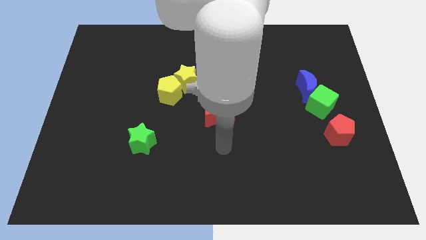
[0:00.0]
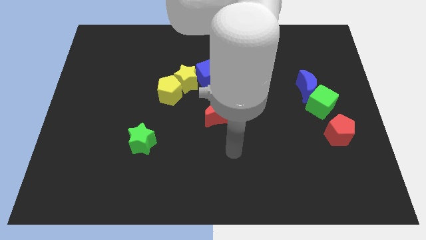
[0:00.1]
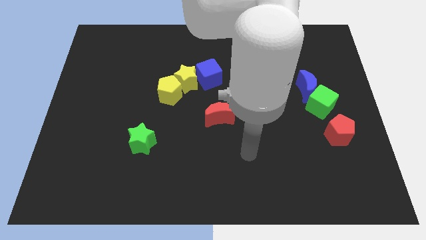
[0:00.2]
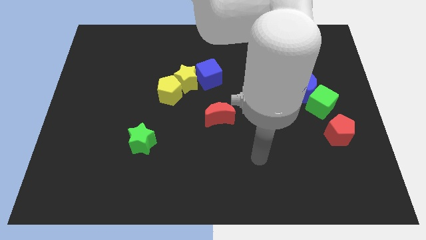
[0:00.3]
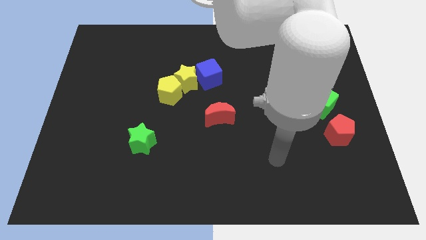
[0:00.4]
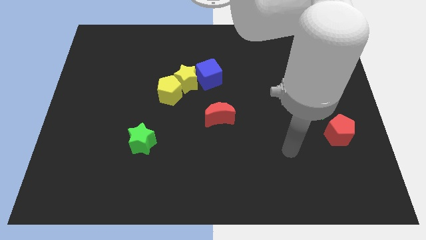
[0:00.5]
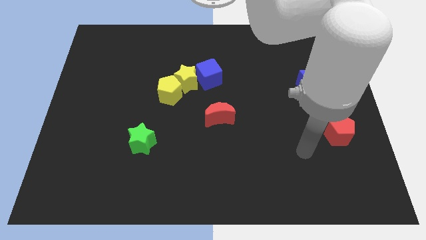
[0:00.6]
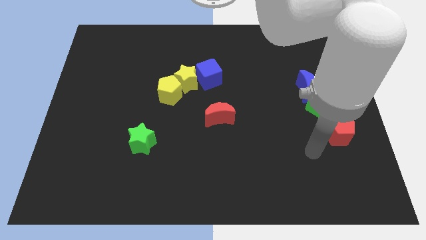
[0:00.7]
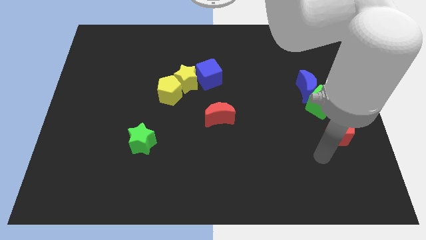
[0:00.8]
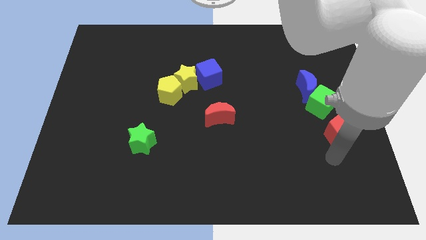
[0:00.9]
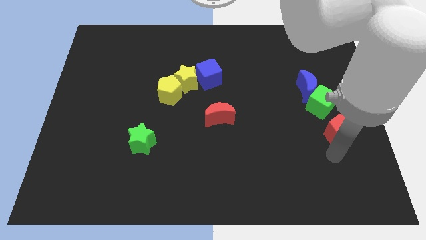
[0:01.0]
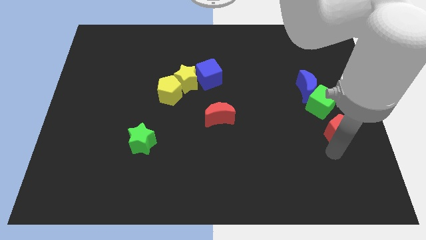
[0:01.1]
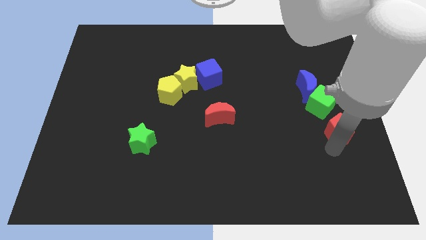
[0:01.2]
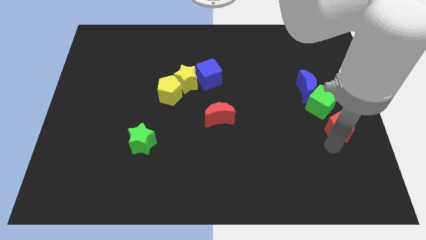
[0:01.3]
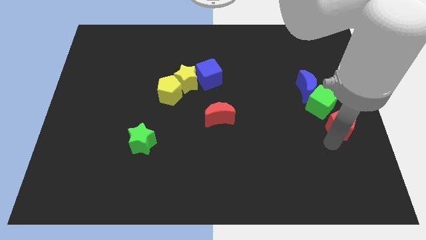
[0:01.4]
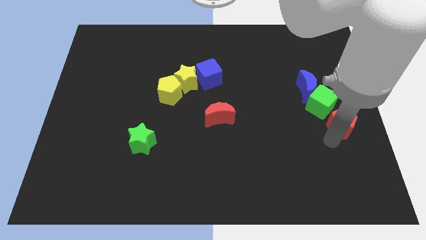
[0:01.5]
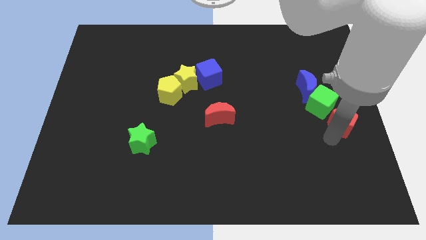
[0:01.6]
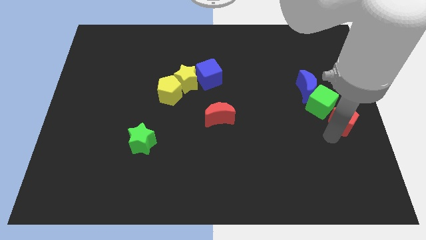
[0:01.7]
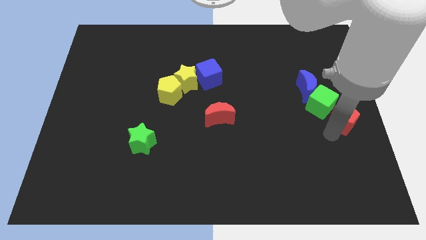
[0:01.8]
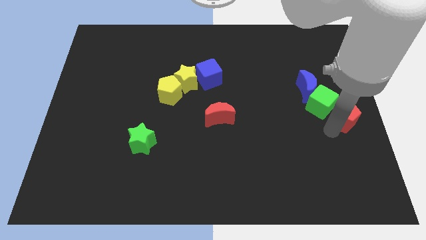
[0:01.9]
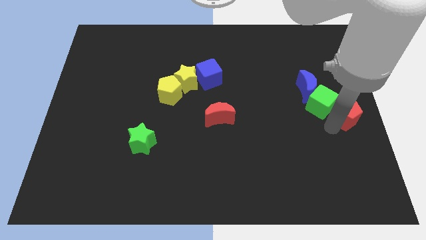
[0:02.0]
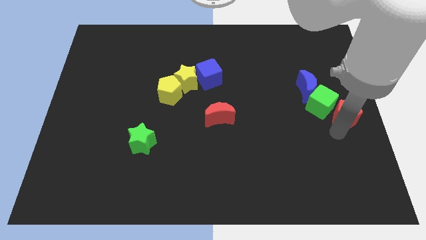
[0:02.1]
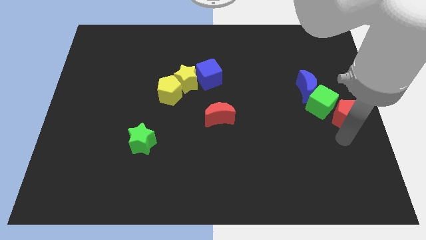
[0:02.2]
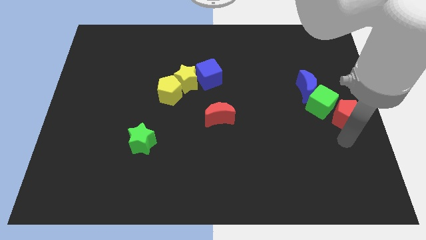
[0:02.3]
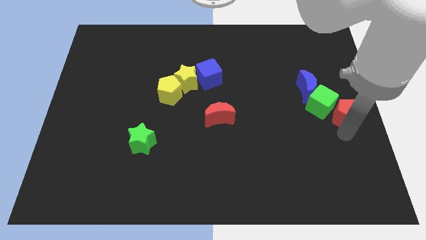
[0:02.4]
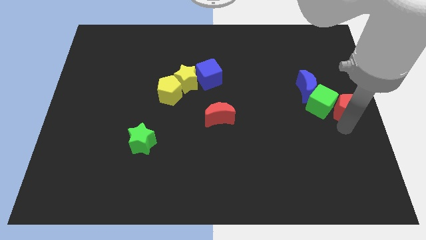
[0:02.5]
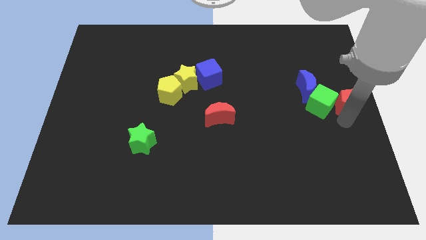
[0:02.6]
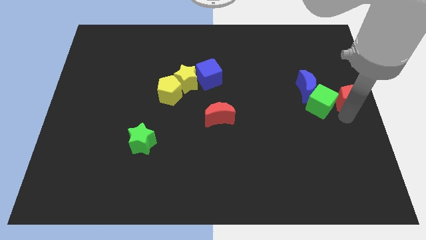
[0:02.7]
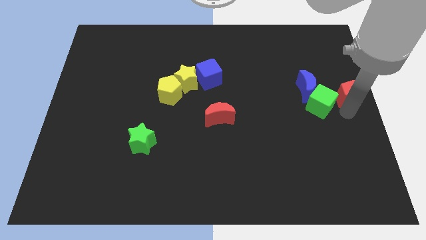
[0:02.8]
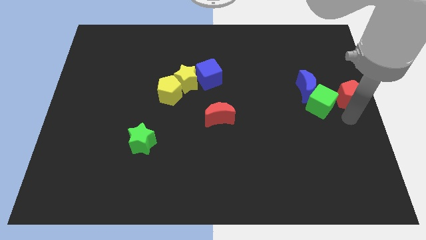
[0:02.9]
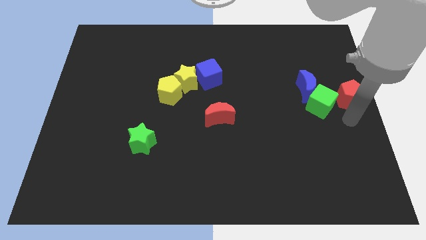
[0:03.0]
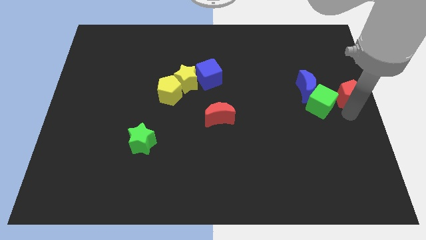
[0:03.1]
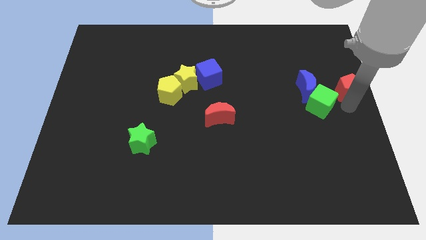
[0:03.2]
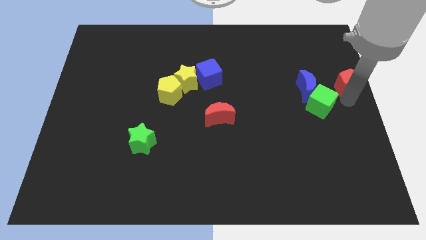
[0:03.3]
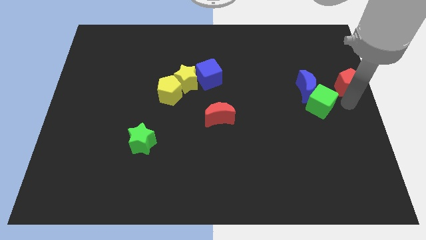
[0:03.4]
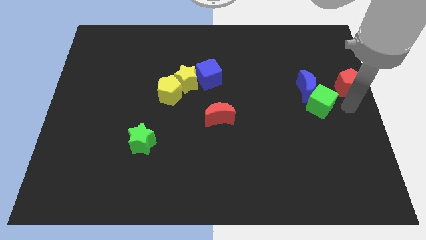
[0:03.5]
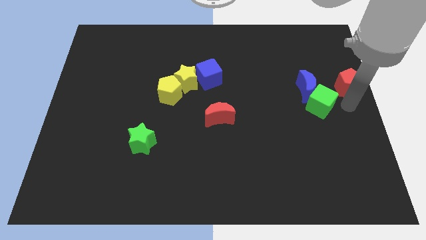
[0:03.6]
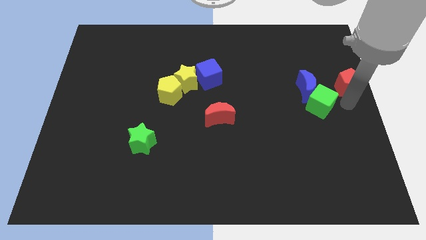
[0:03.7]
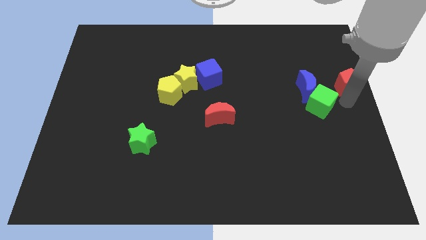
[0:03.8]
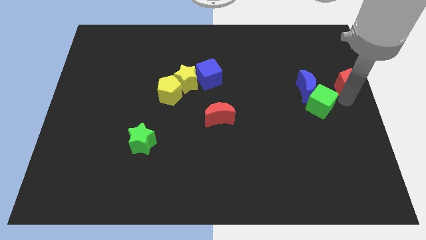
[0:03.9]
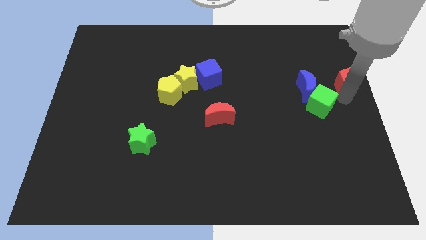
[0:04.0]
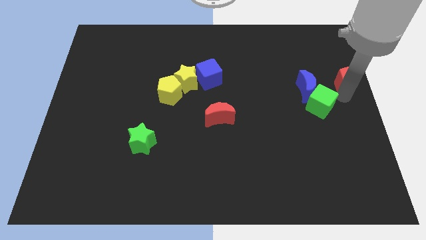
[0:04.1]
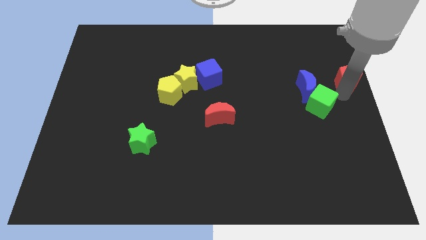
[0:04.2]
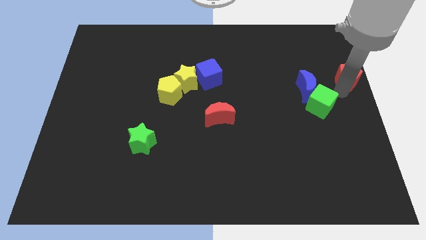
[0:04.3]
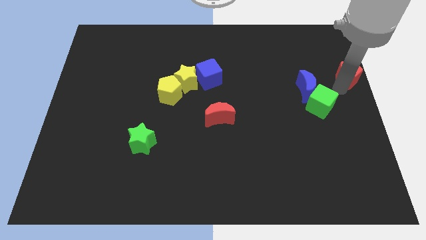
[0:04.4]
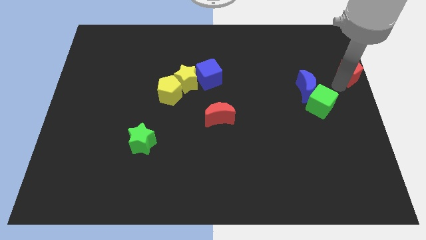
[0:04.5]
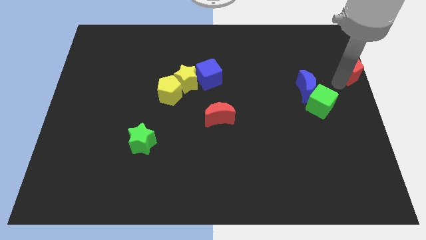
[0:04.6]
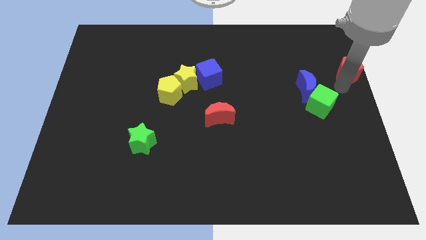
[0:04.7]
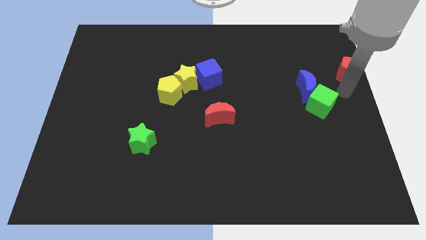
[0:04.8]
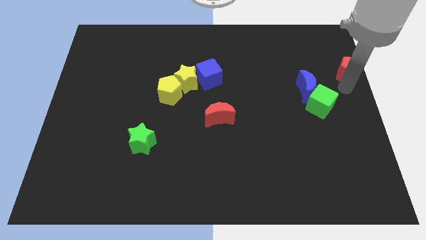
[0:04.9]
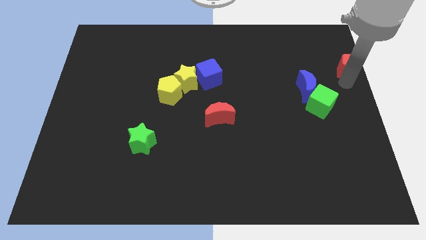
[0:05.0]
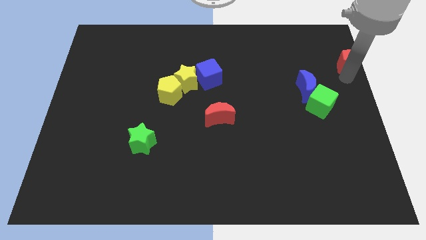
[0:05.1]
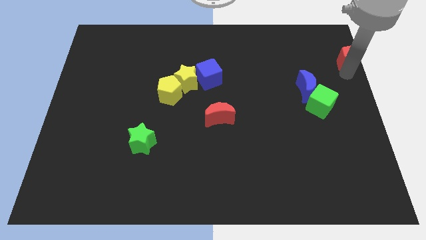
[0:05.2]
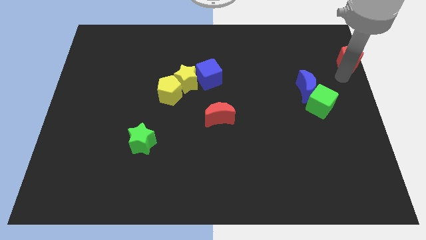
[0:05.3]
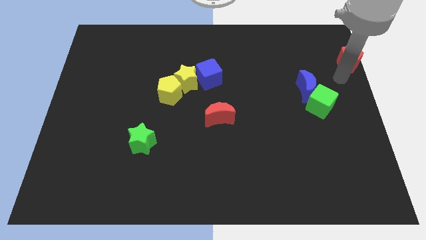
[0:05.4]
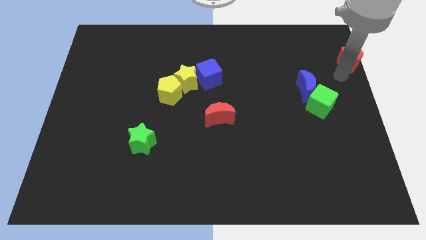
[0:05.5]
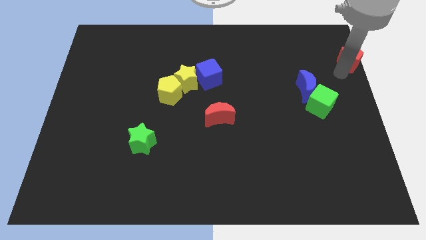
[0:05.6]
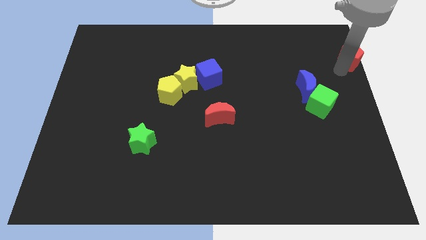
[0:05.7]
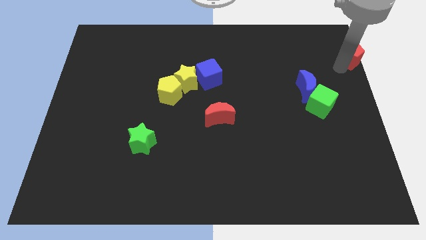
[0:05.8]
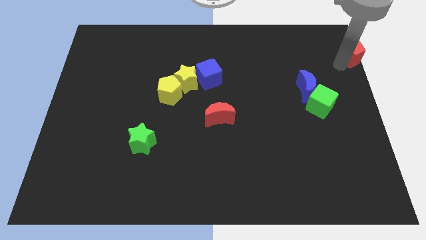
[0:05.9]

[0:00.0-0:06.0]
slide the red pentagon to the top right
